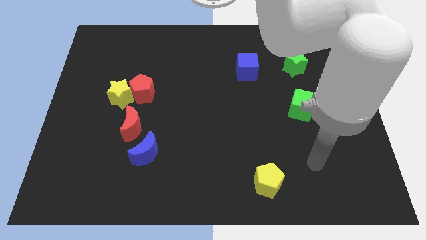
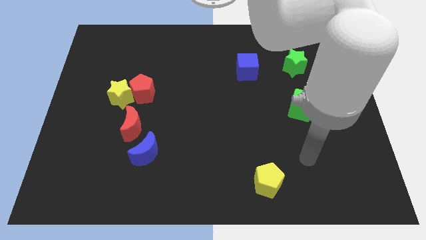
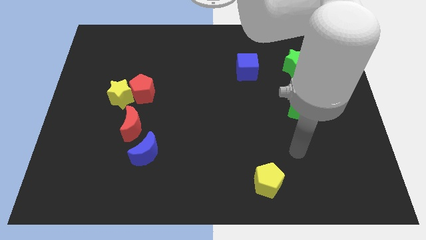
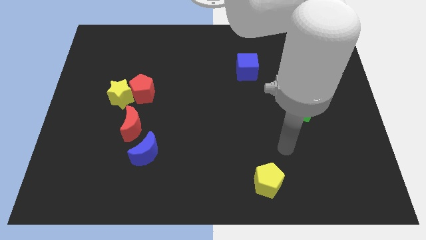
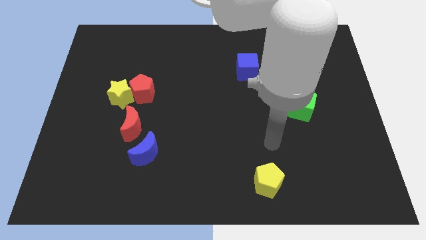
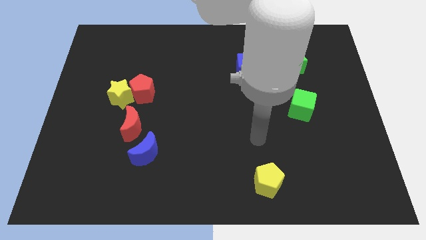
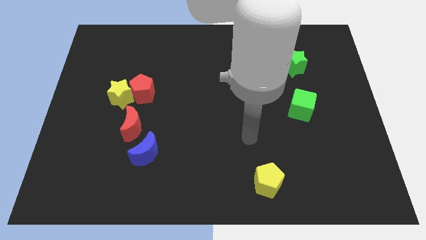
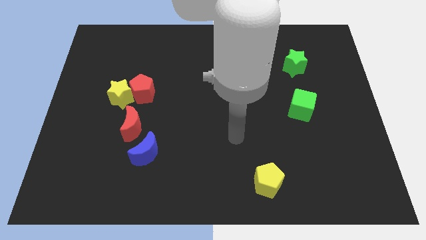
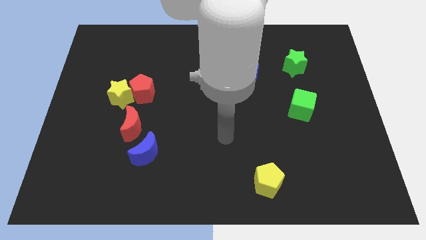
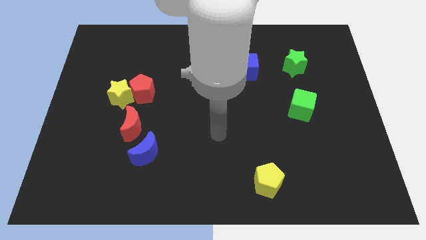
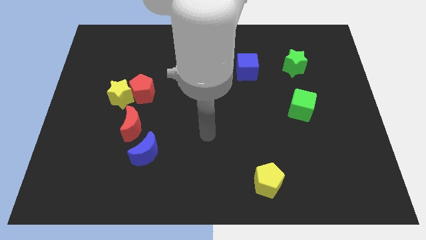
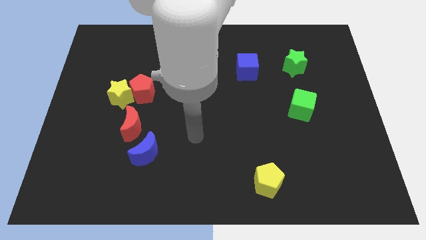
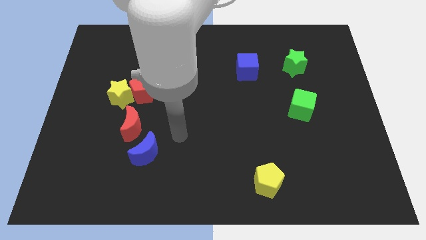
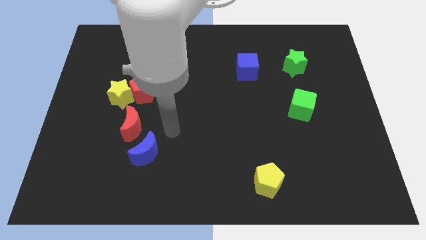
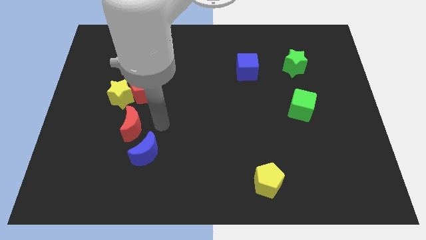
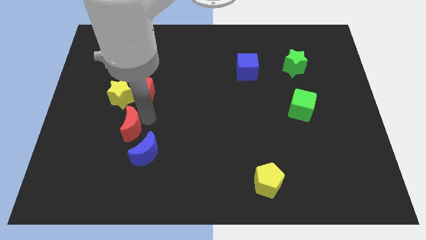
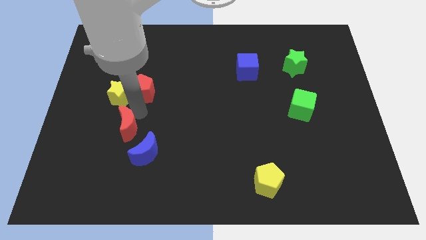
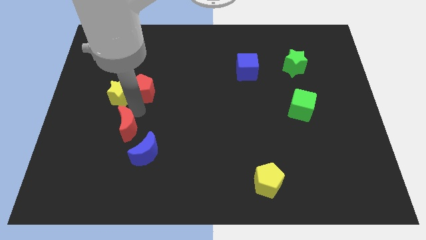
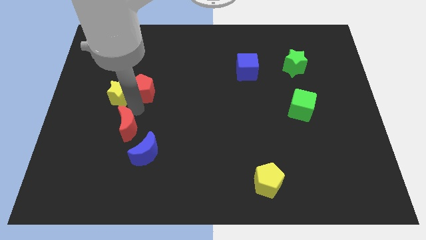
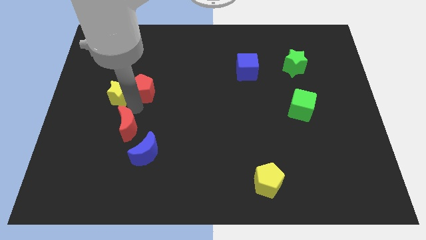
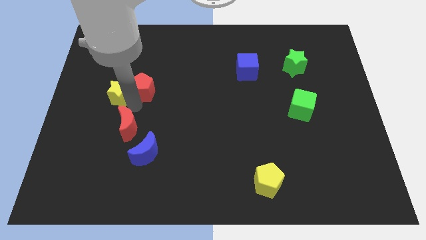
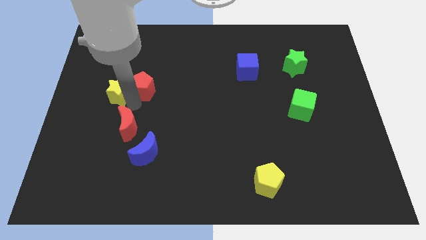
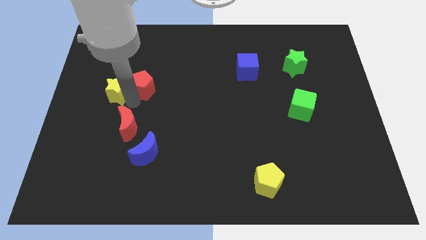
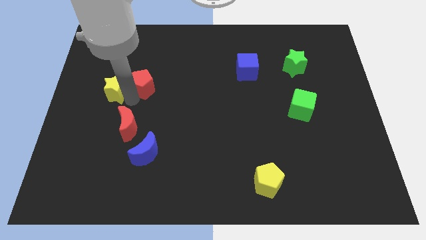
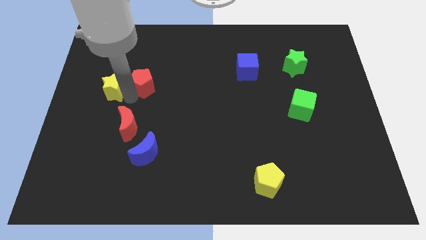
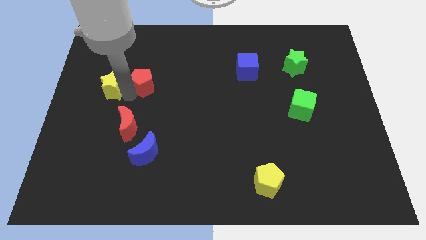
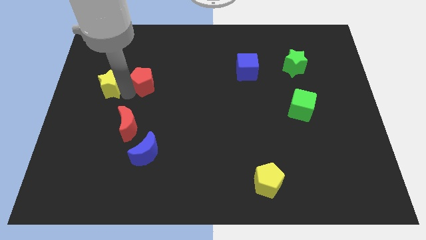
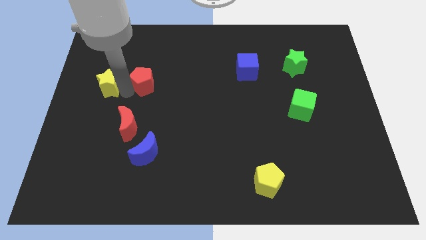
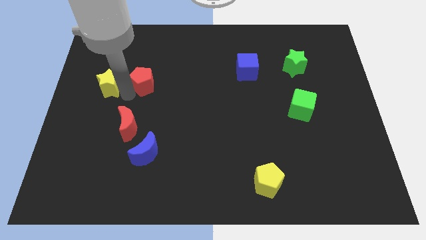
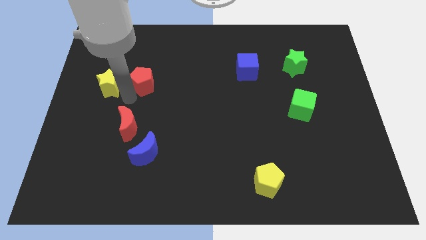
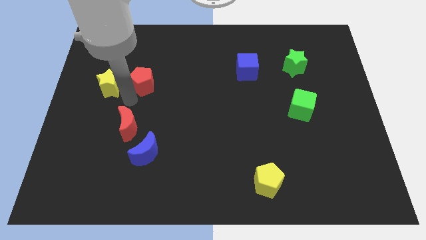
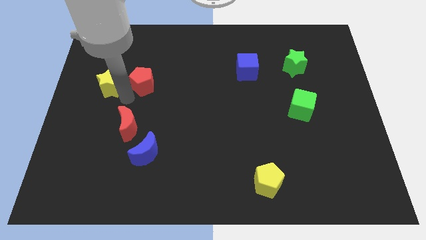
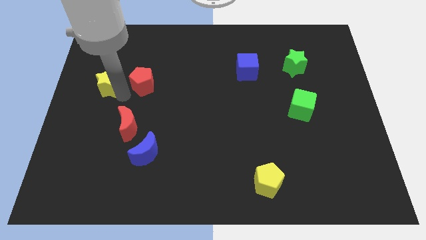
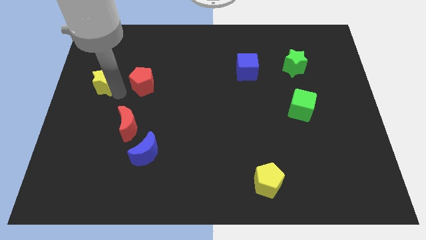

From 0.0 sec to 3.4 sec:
pull the yellow star apart from the red pentagon and red moon

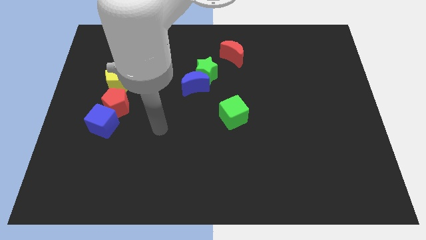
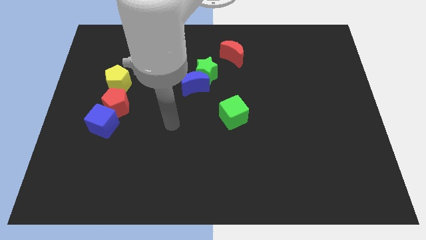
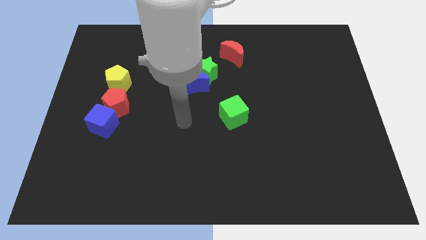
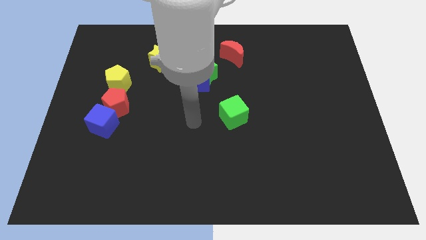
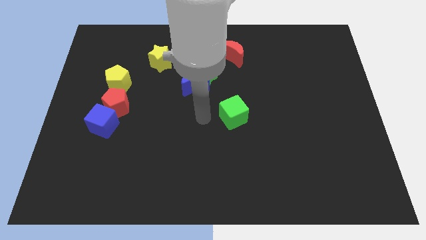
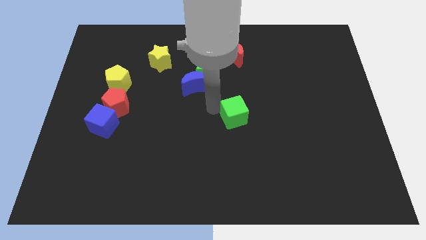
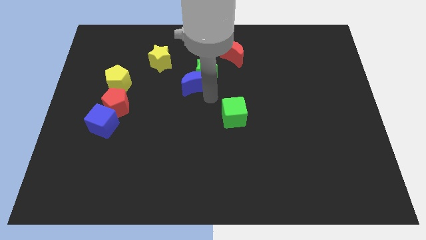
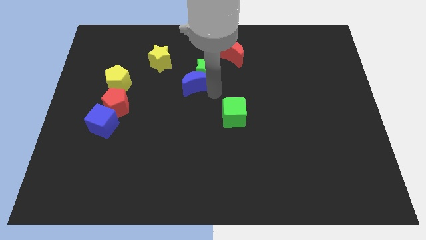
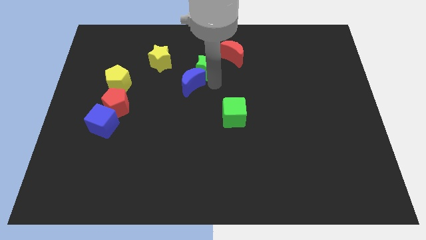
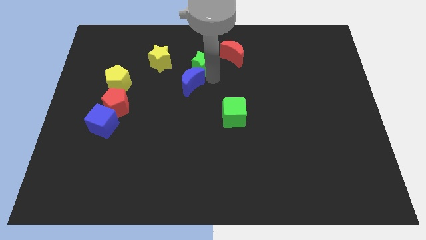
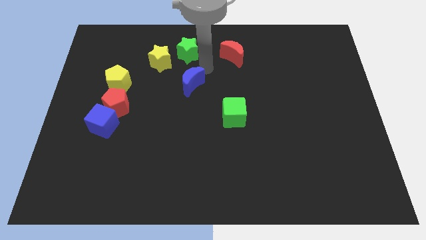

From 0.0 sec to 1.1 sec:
pull the blue moon apart from the green star

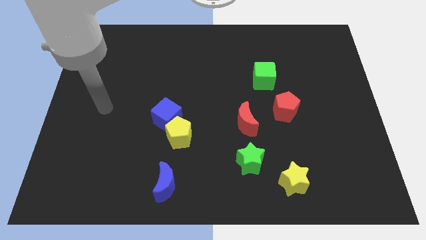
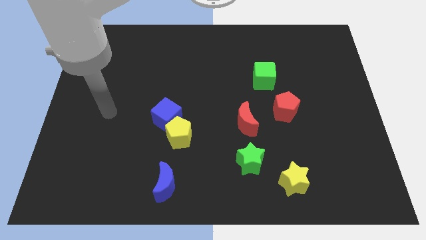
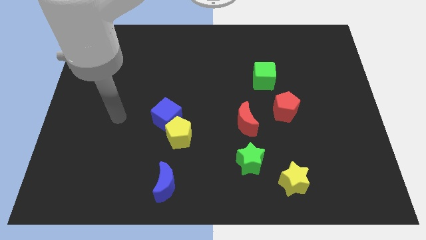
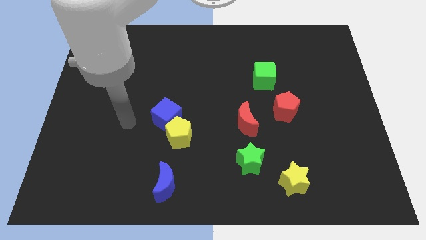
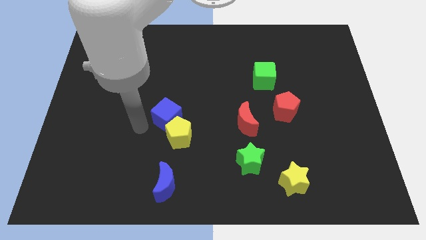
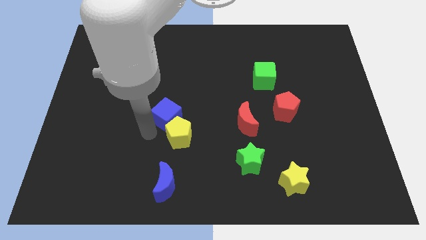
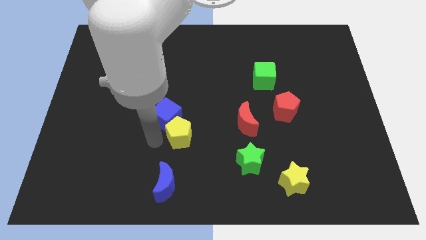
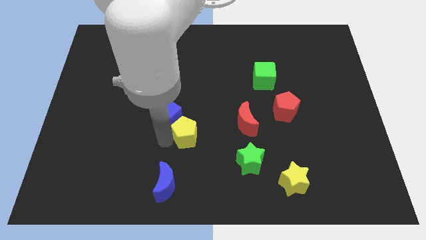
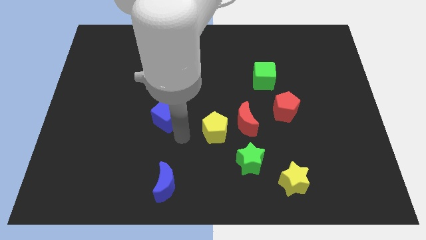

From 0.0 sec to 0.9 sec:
move the blue cube away from the yellow pentagon

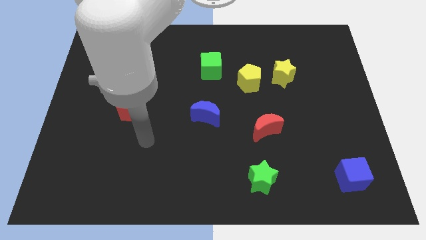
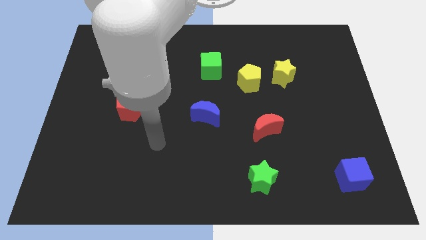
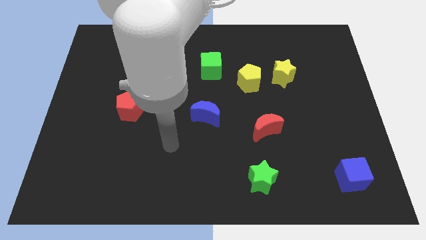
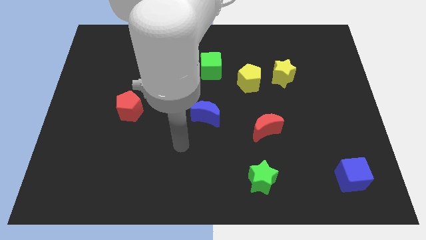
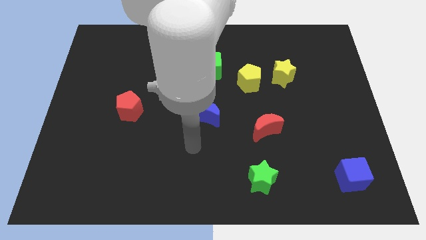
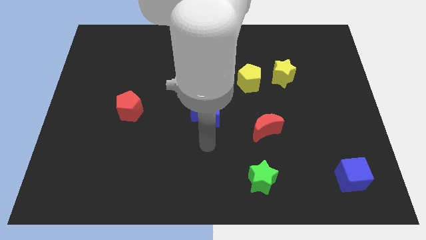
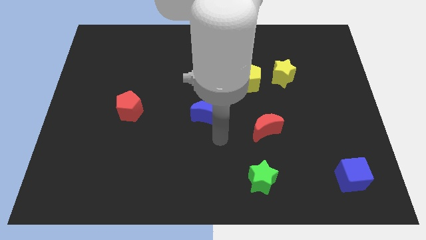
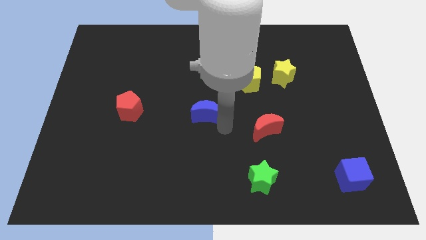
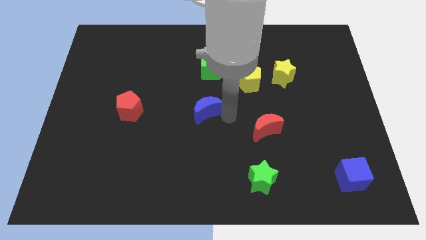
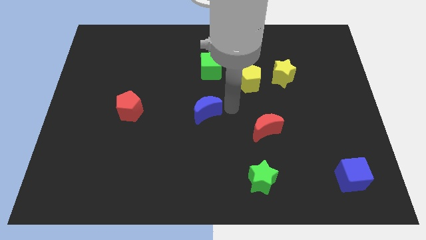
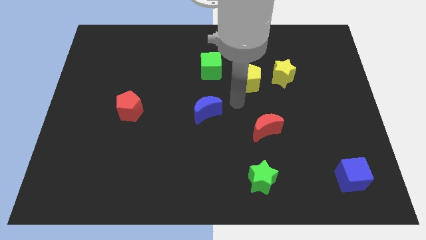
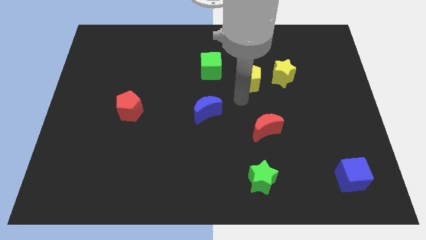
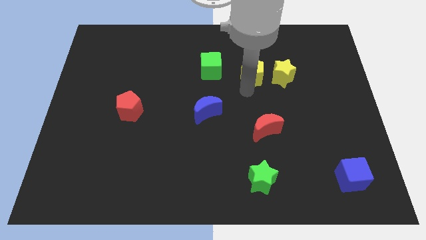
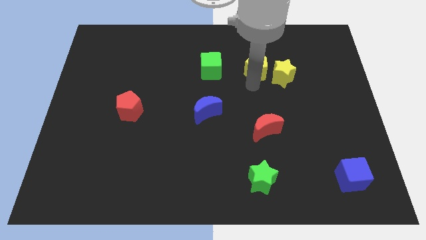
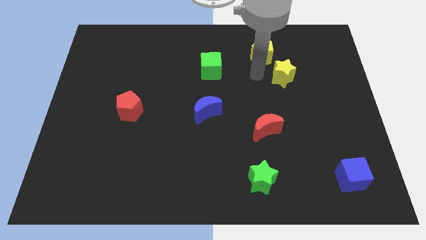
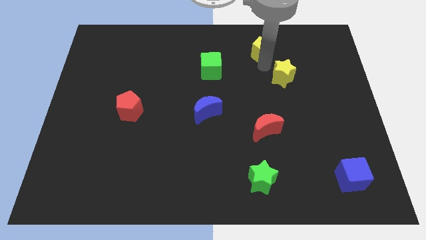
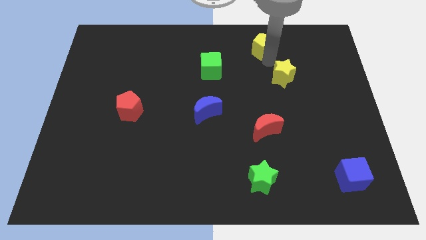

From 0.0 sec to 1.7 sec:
pull the yellow star apart from the yellow pentagon

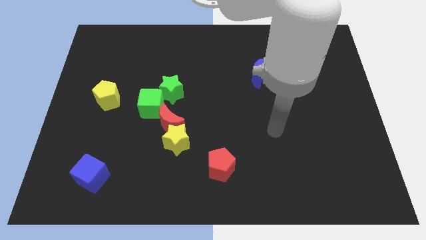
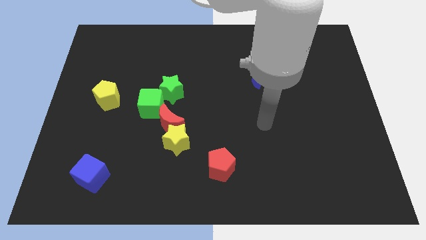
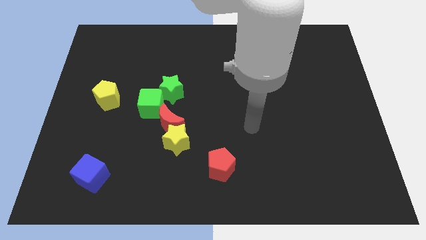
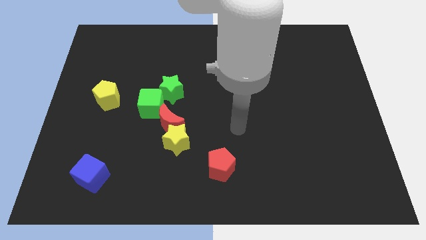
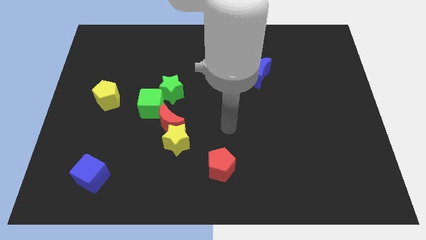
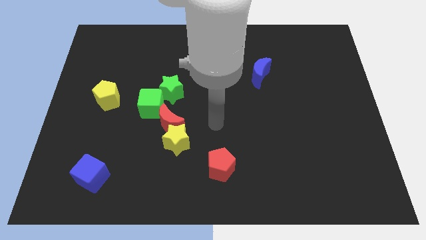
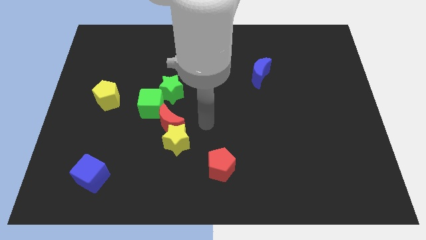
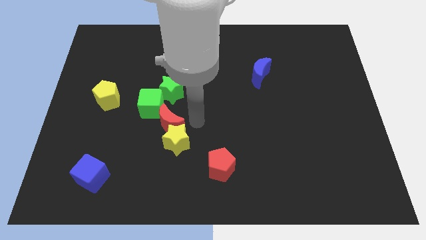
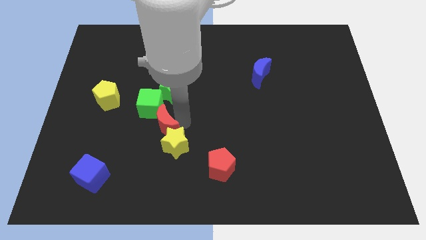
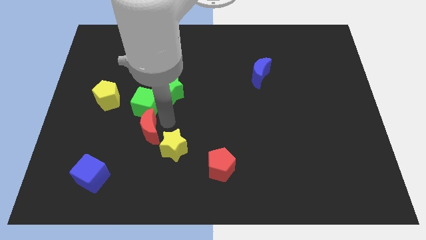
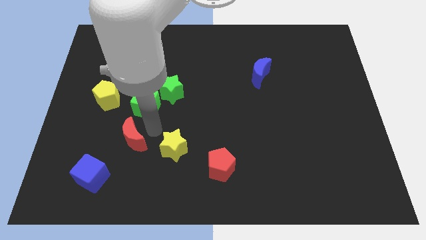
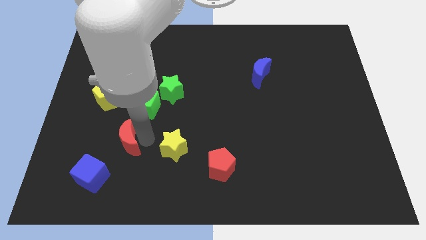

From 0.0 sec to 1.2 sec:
move the yellow star away from the red moon

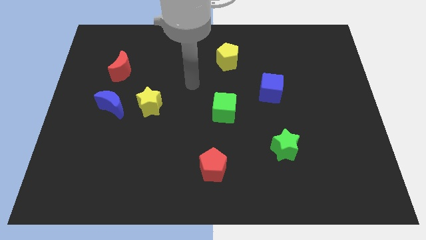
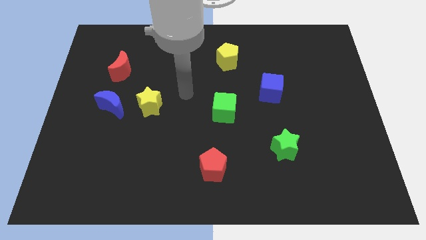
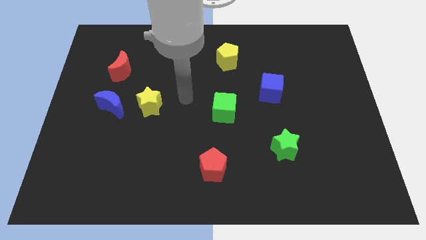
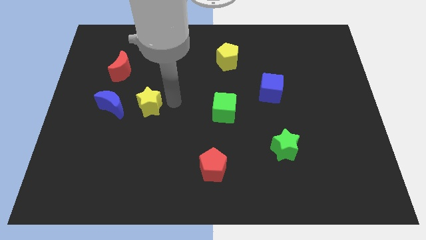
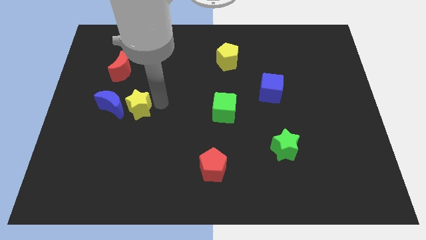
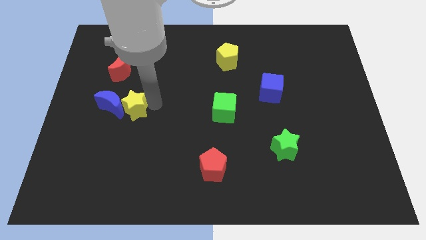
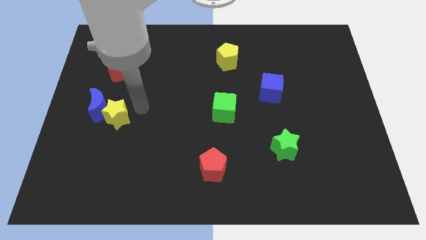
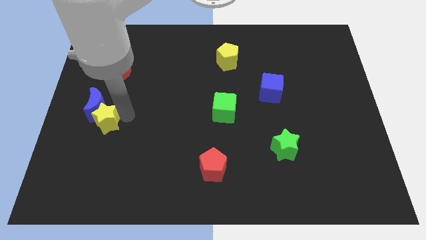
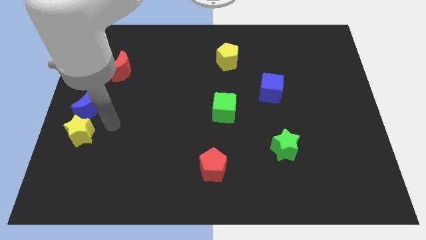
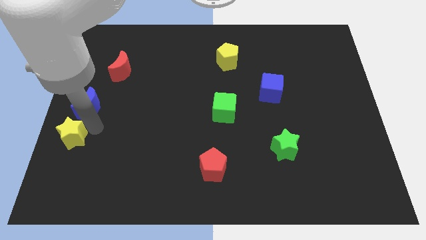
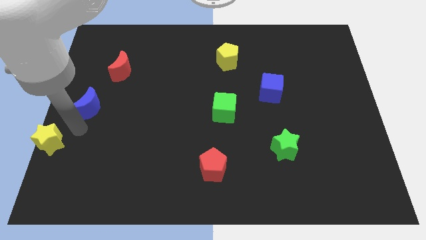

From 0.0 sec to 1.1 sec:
separate the blue moon from the yellow star
